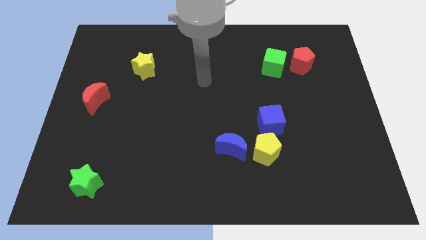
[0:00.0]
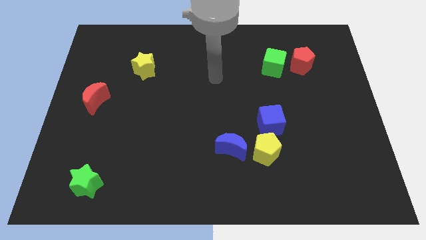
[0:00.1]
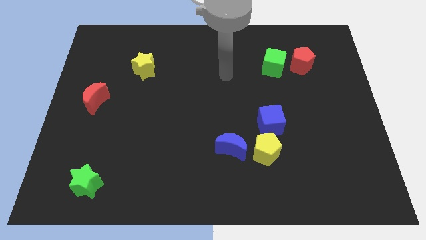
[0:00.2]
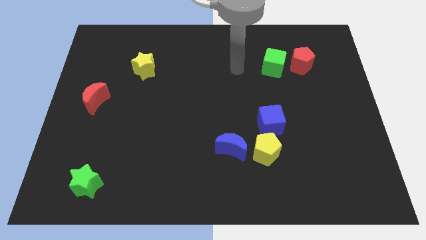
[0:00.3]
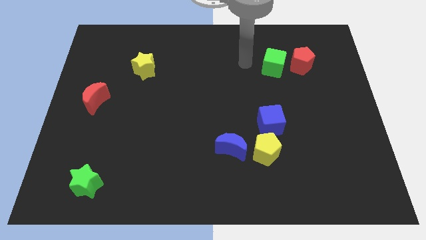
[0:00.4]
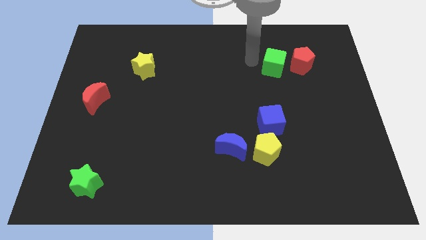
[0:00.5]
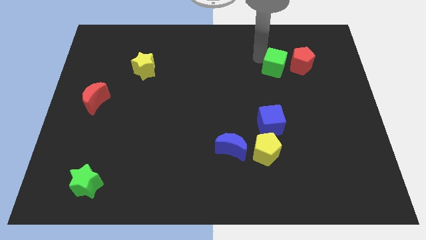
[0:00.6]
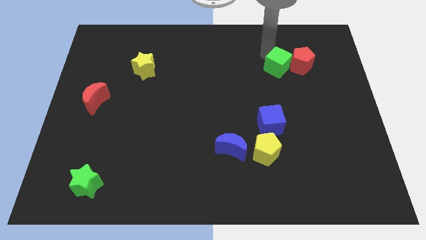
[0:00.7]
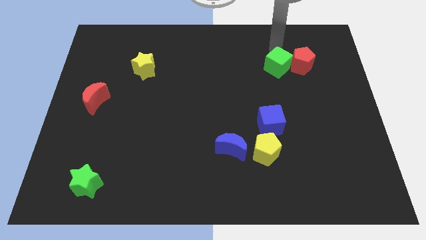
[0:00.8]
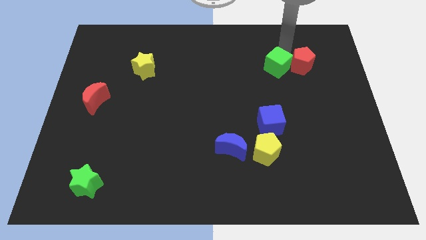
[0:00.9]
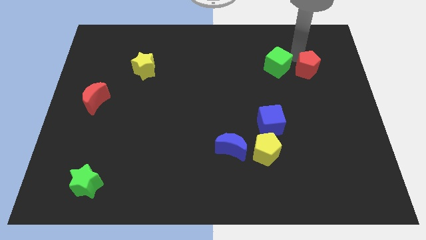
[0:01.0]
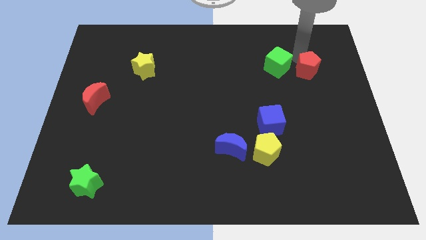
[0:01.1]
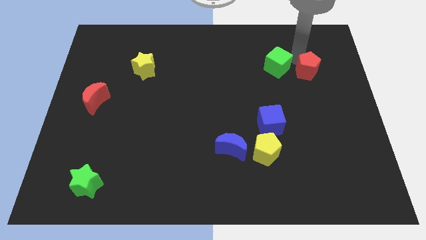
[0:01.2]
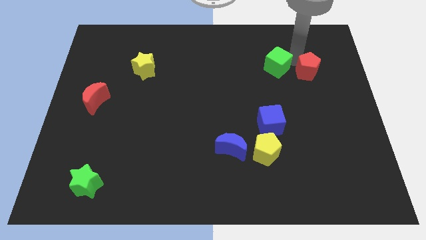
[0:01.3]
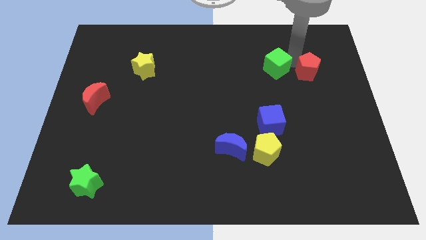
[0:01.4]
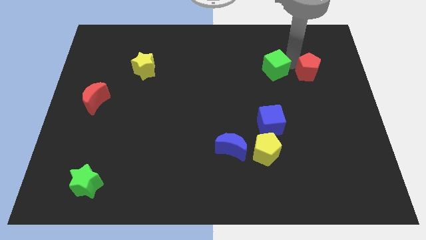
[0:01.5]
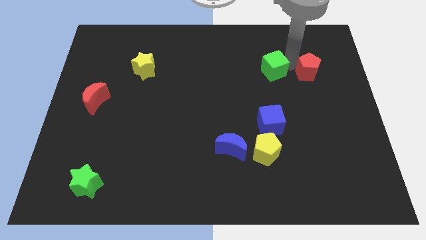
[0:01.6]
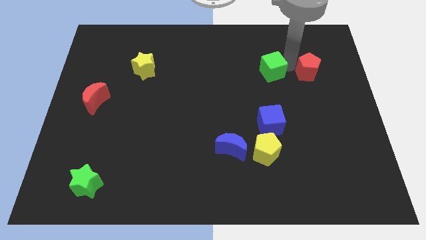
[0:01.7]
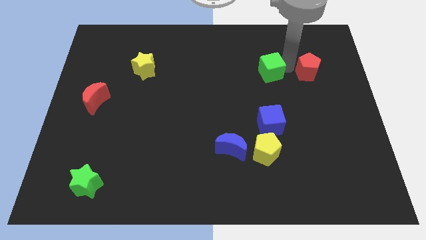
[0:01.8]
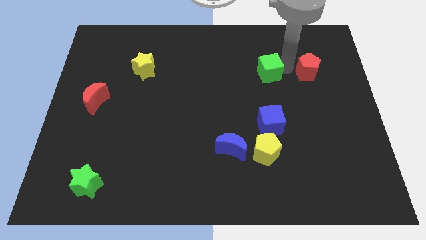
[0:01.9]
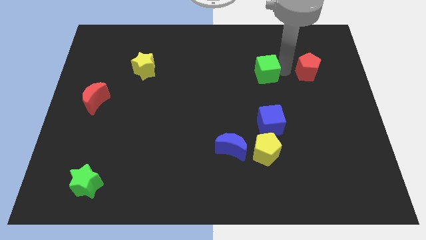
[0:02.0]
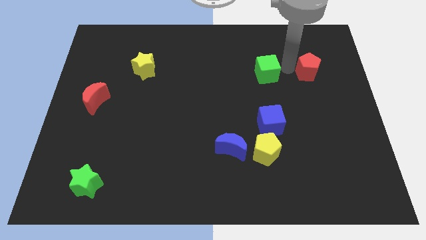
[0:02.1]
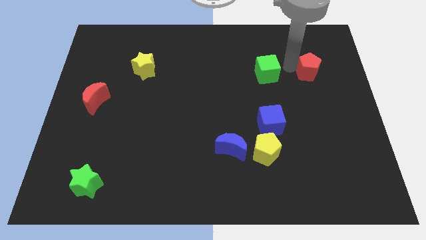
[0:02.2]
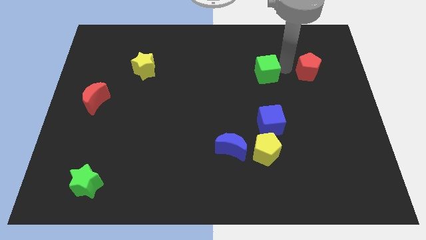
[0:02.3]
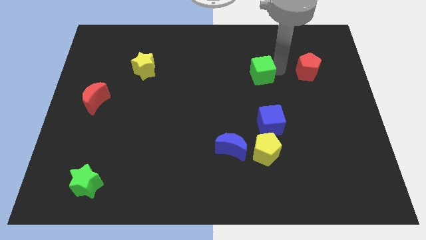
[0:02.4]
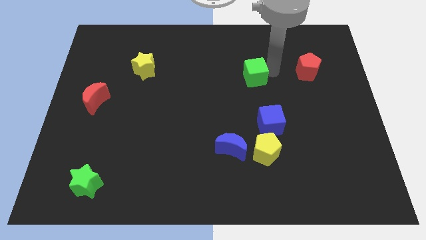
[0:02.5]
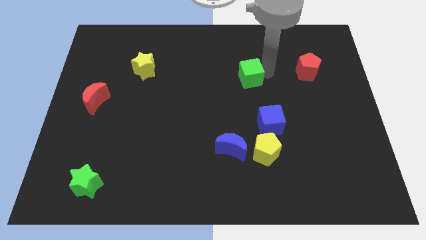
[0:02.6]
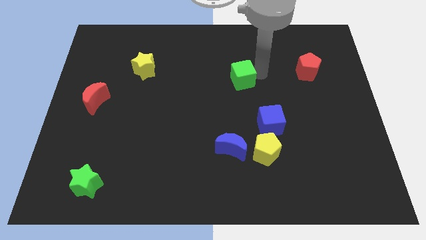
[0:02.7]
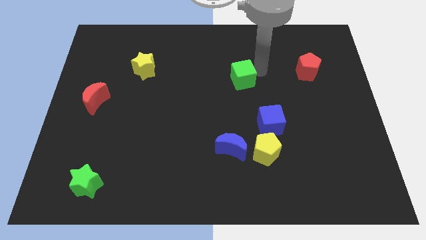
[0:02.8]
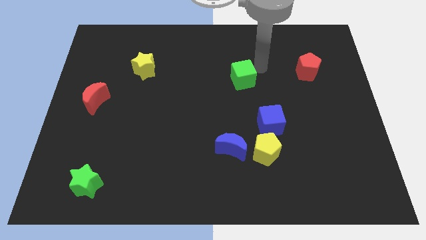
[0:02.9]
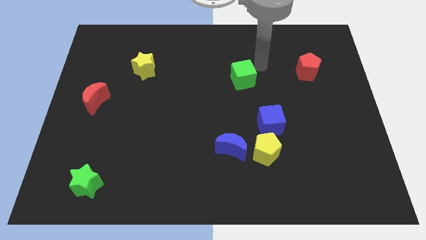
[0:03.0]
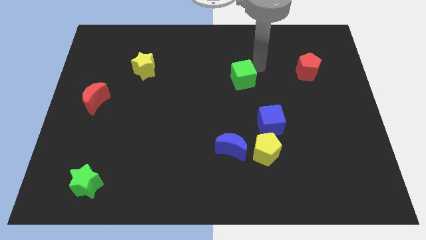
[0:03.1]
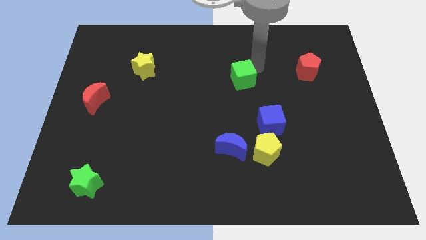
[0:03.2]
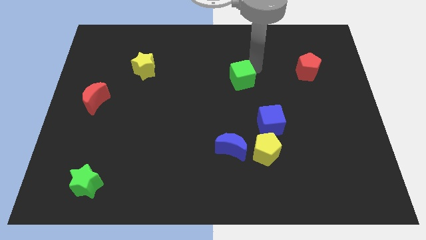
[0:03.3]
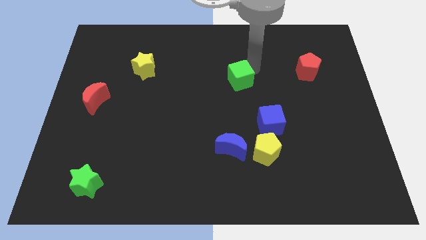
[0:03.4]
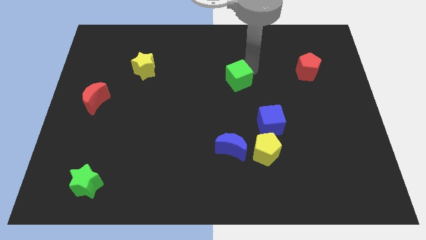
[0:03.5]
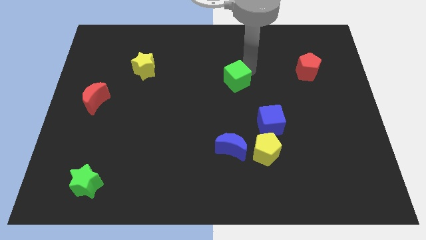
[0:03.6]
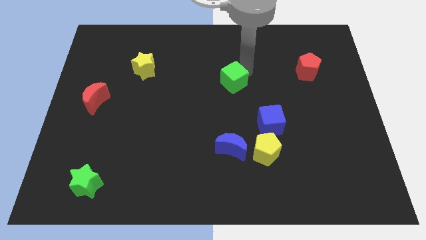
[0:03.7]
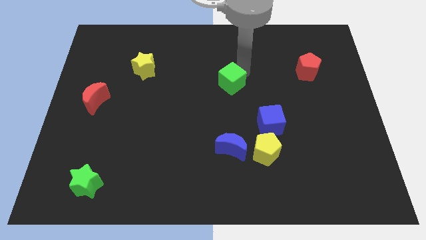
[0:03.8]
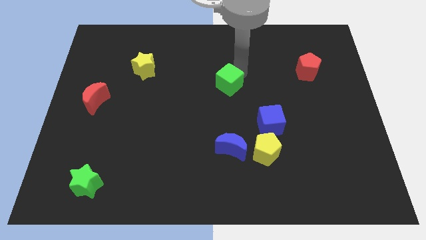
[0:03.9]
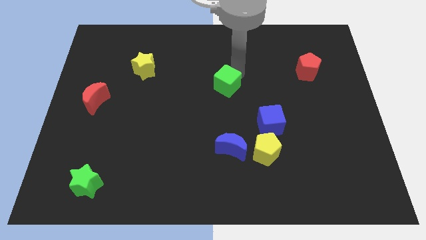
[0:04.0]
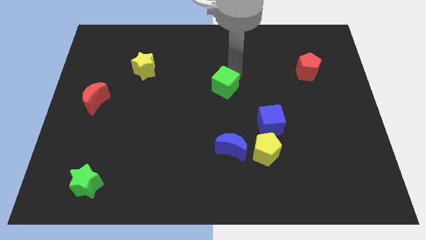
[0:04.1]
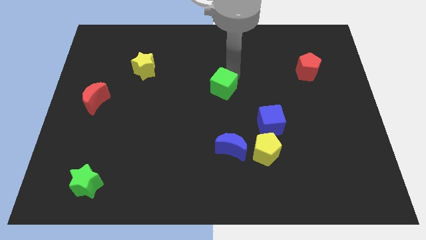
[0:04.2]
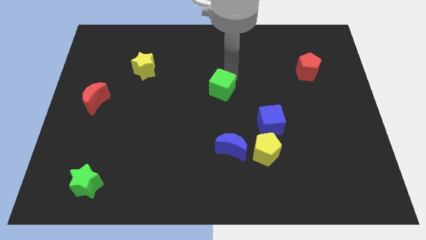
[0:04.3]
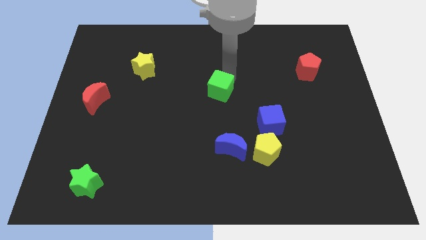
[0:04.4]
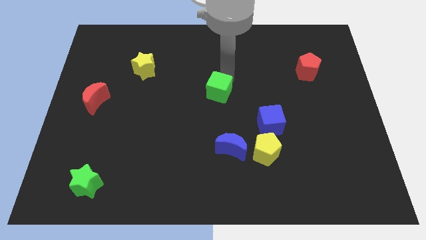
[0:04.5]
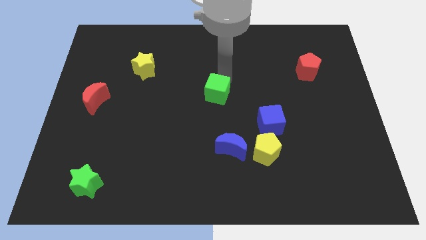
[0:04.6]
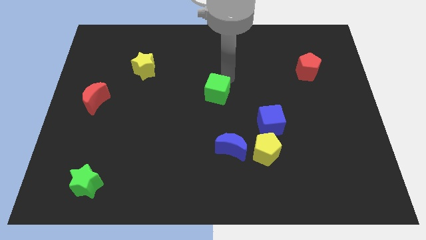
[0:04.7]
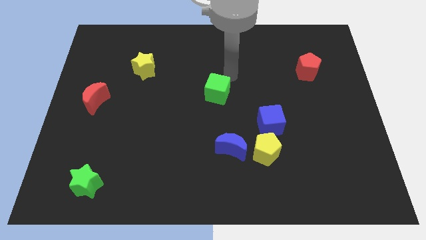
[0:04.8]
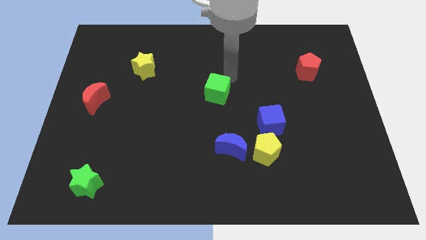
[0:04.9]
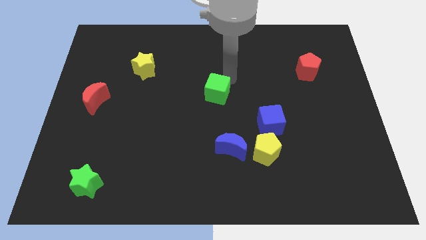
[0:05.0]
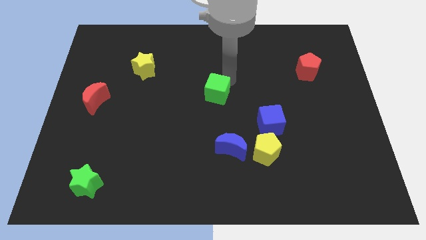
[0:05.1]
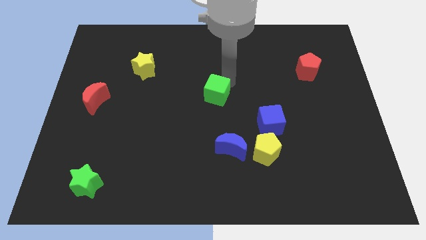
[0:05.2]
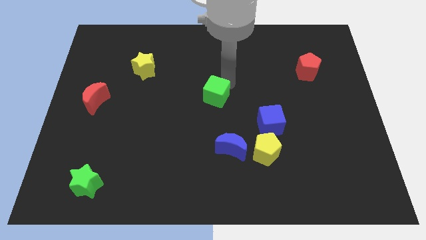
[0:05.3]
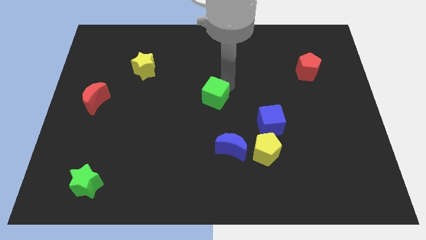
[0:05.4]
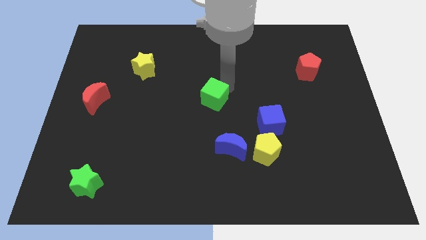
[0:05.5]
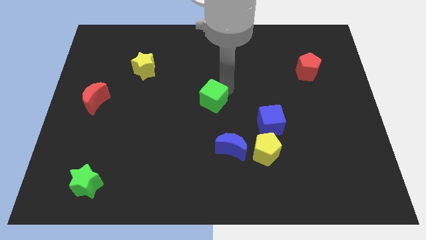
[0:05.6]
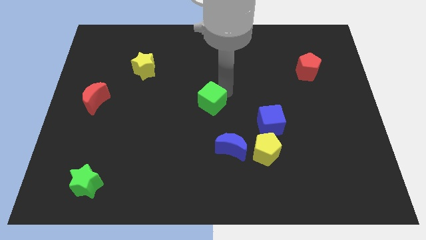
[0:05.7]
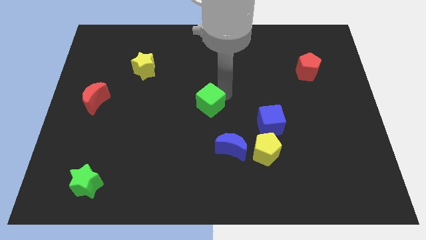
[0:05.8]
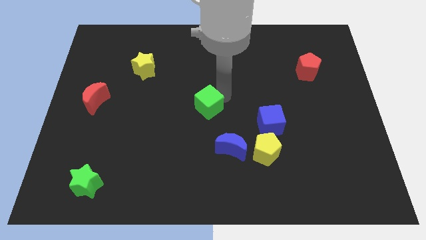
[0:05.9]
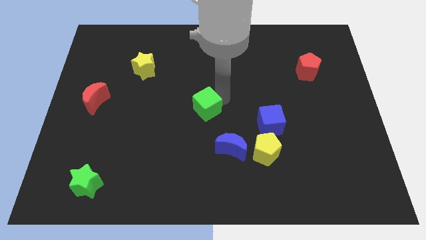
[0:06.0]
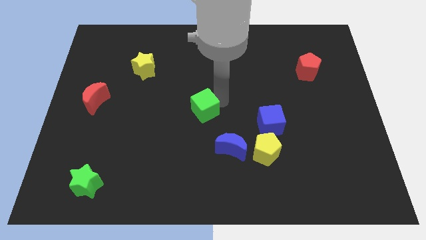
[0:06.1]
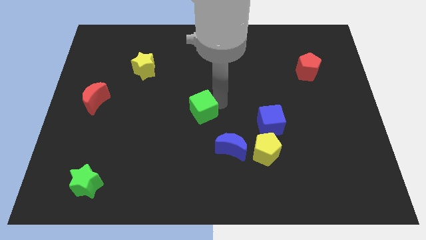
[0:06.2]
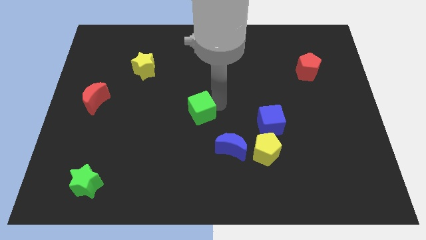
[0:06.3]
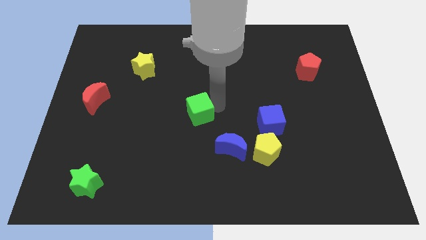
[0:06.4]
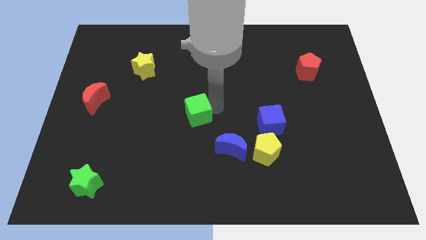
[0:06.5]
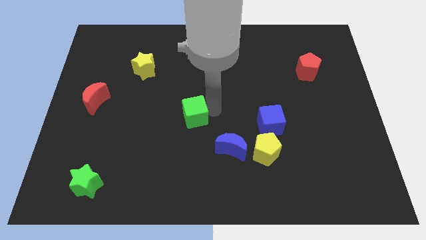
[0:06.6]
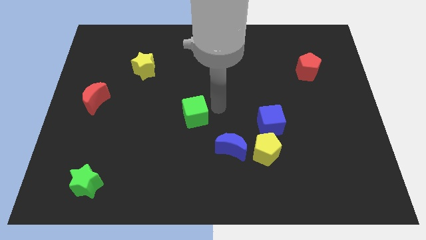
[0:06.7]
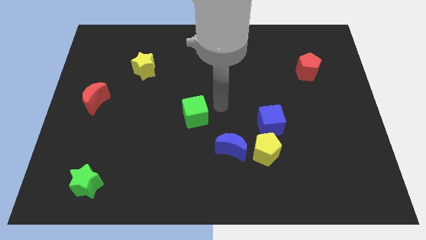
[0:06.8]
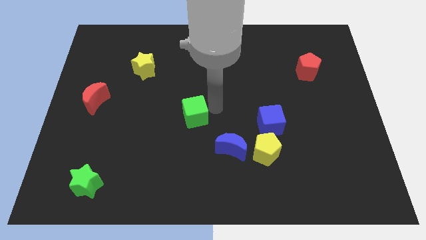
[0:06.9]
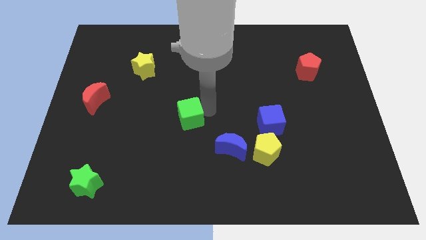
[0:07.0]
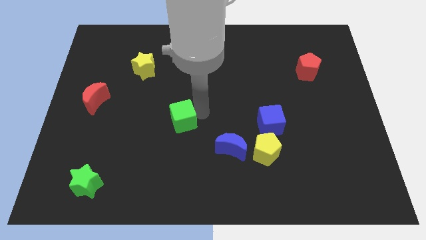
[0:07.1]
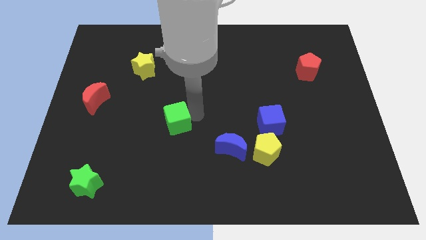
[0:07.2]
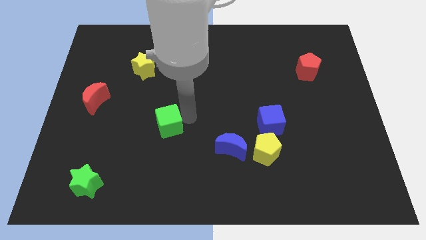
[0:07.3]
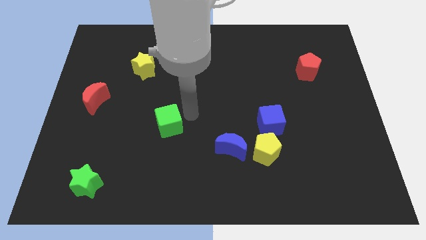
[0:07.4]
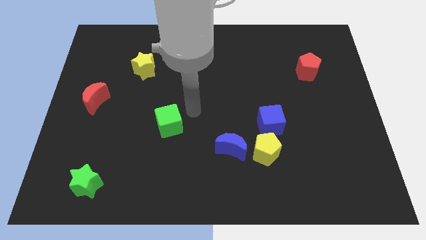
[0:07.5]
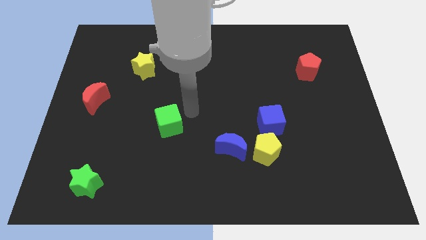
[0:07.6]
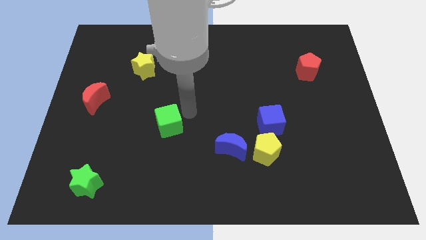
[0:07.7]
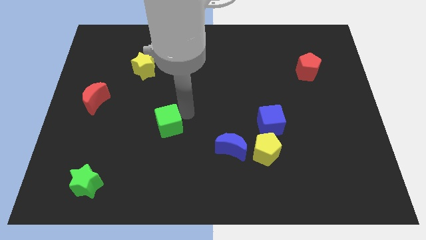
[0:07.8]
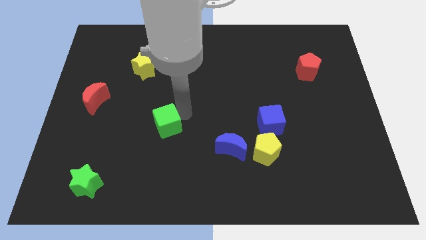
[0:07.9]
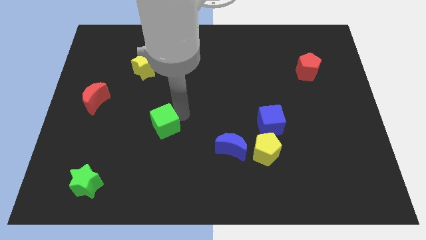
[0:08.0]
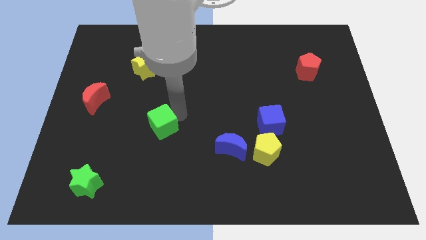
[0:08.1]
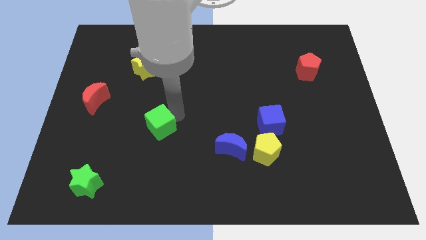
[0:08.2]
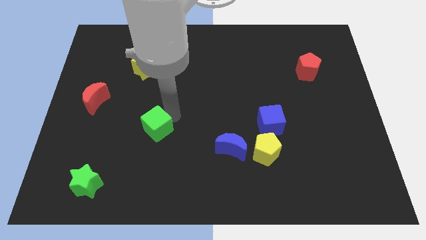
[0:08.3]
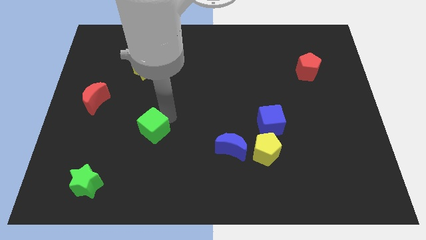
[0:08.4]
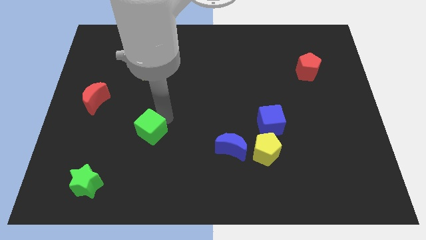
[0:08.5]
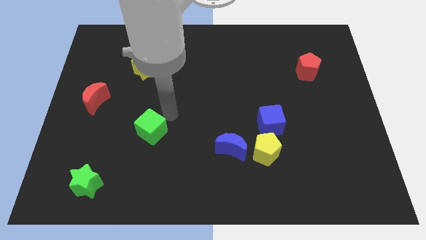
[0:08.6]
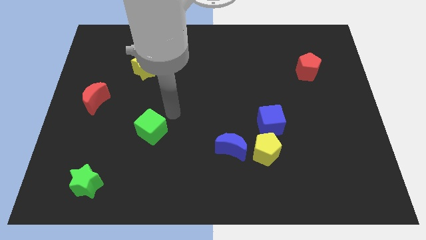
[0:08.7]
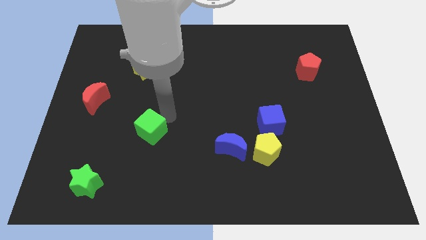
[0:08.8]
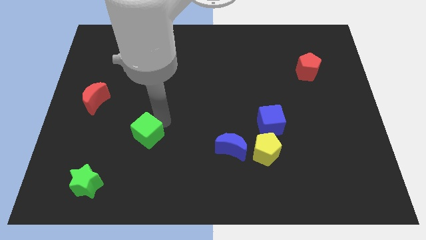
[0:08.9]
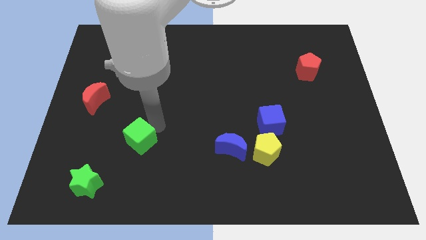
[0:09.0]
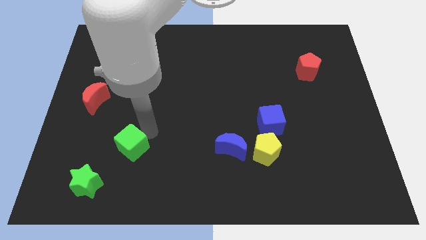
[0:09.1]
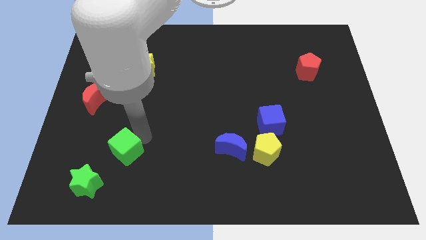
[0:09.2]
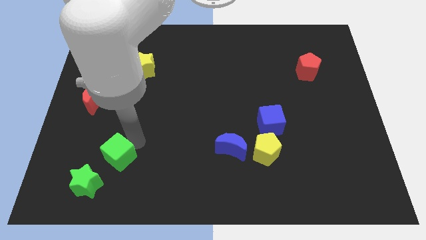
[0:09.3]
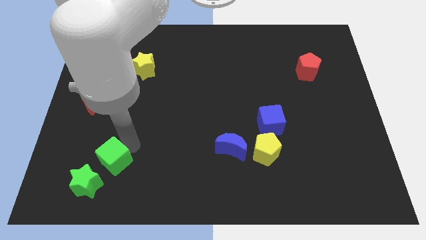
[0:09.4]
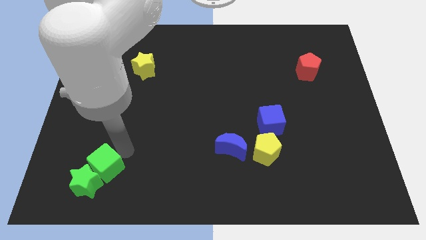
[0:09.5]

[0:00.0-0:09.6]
put the green cube to the green star
